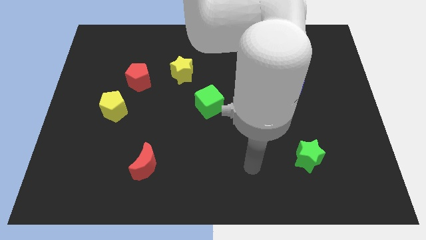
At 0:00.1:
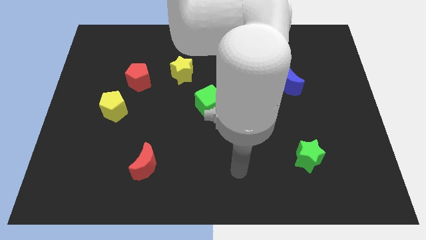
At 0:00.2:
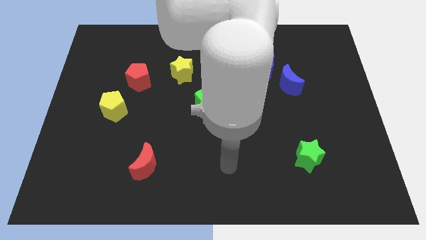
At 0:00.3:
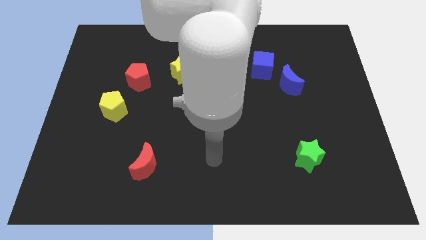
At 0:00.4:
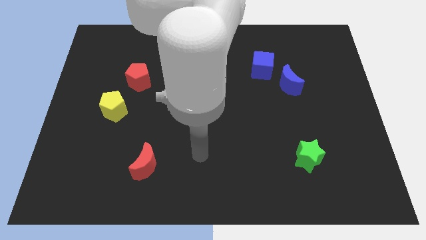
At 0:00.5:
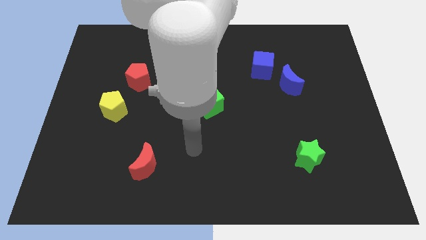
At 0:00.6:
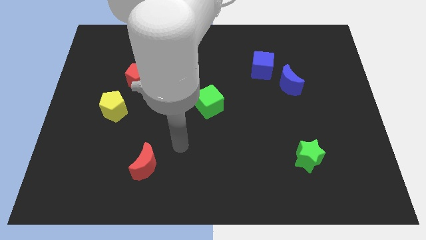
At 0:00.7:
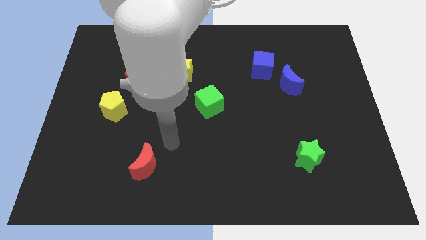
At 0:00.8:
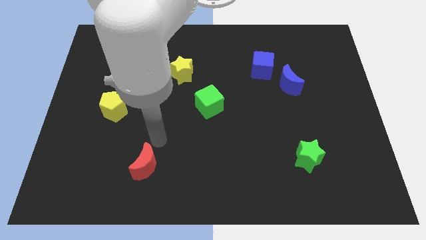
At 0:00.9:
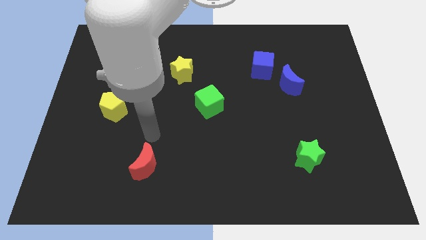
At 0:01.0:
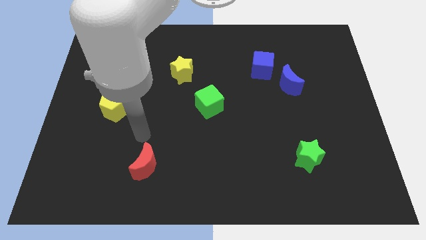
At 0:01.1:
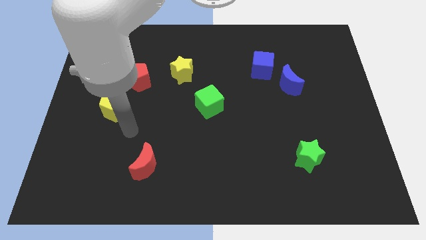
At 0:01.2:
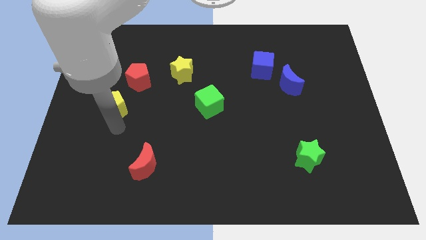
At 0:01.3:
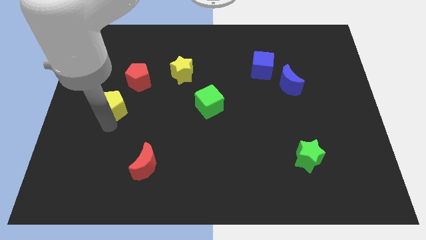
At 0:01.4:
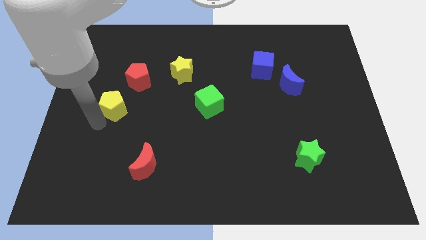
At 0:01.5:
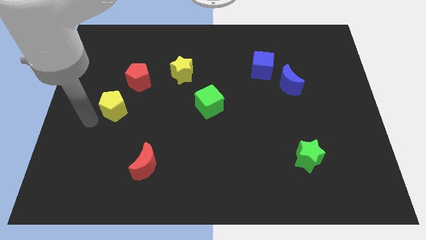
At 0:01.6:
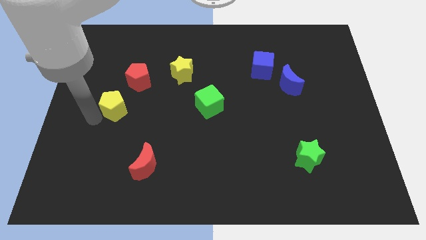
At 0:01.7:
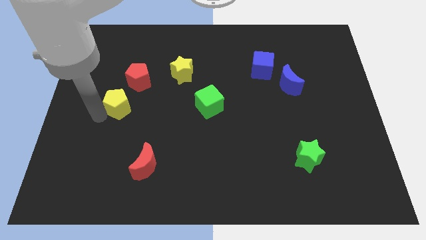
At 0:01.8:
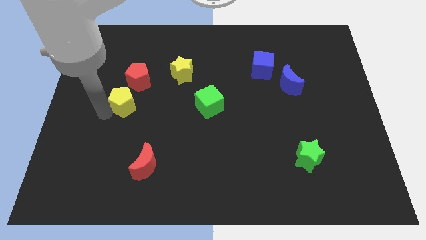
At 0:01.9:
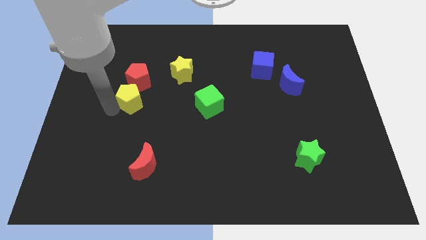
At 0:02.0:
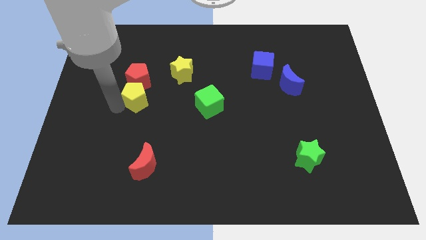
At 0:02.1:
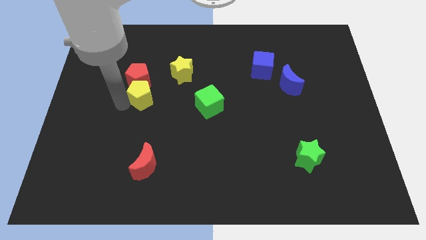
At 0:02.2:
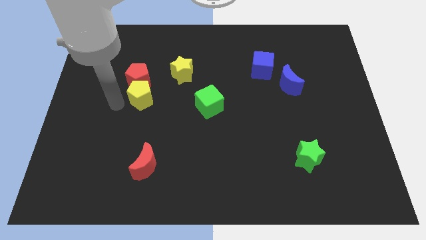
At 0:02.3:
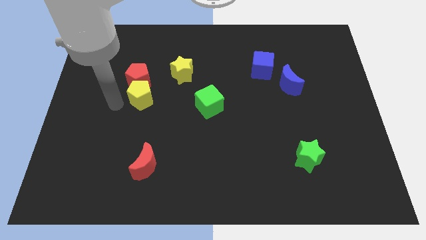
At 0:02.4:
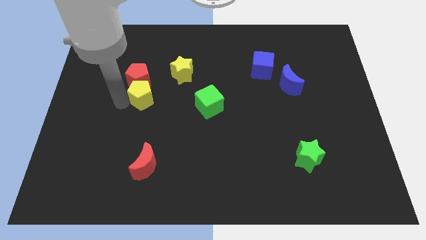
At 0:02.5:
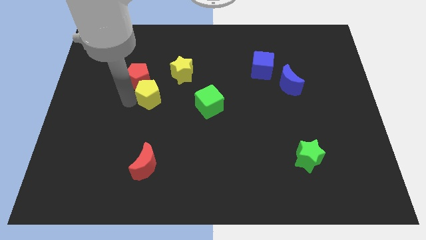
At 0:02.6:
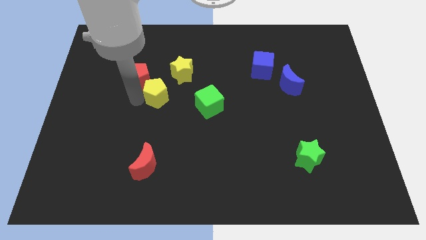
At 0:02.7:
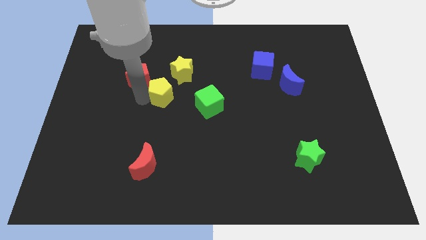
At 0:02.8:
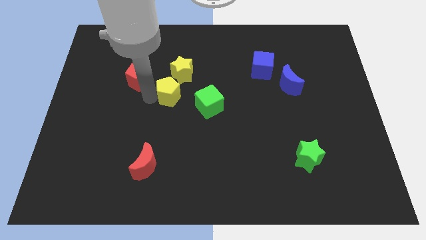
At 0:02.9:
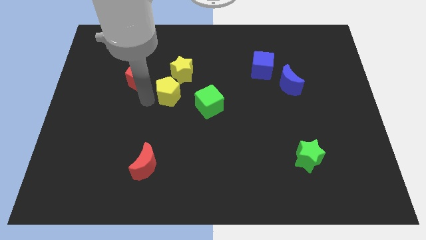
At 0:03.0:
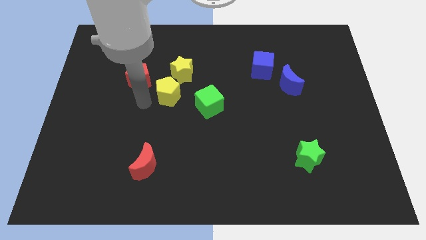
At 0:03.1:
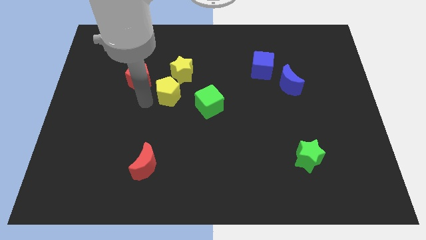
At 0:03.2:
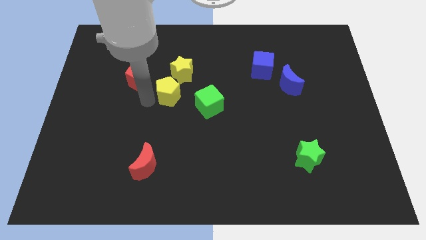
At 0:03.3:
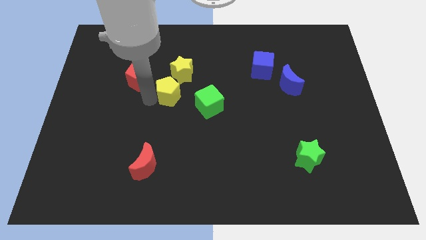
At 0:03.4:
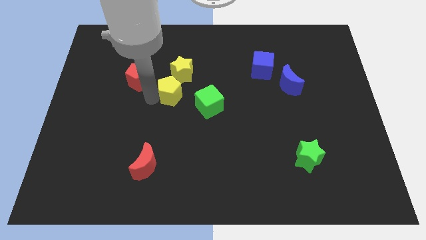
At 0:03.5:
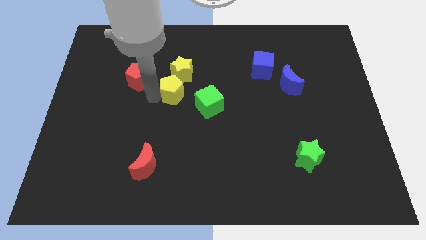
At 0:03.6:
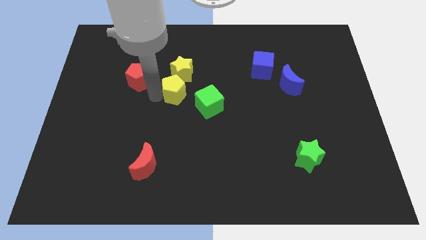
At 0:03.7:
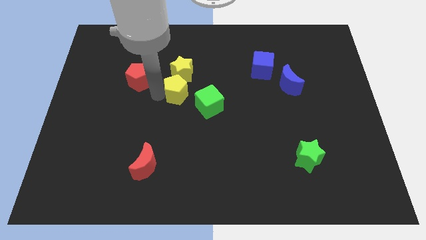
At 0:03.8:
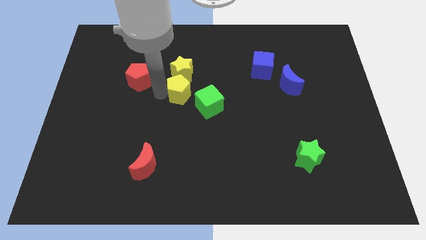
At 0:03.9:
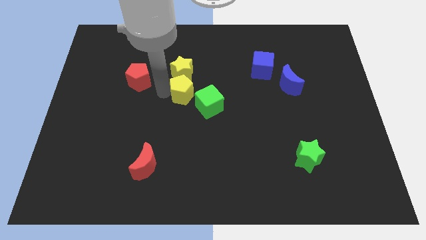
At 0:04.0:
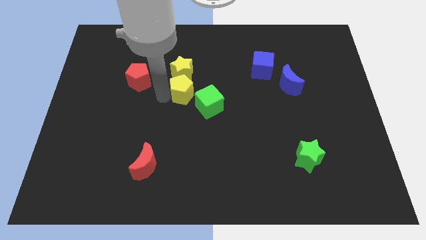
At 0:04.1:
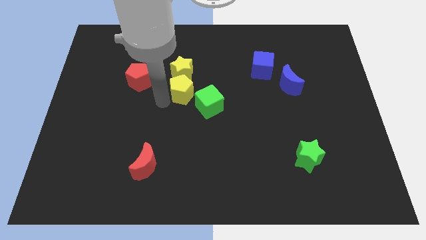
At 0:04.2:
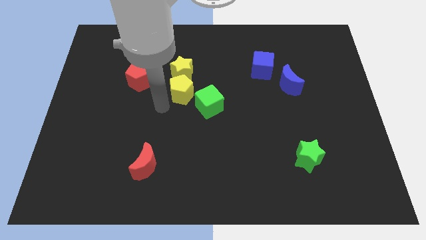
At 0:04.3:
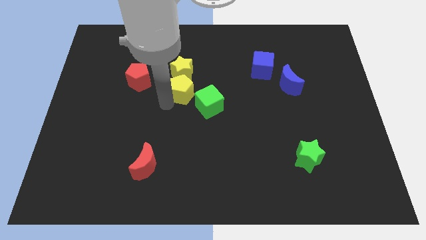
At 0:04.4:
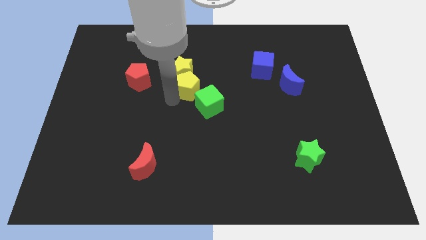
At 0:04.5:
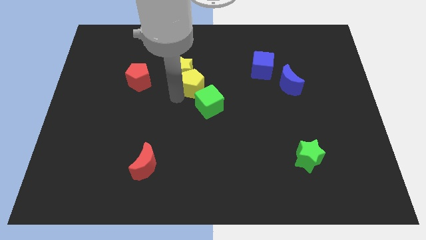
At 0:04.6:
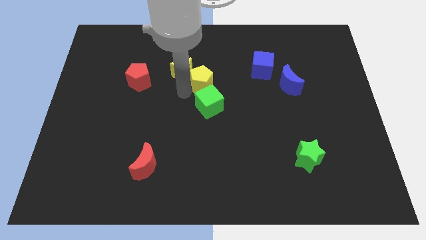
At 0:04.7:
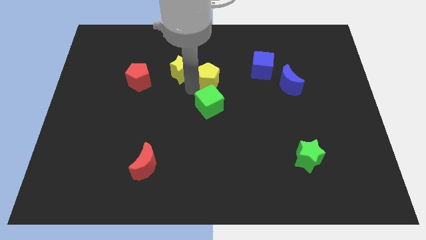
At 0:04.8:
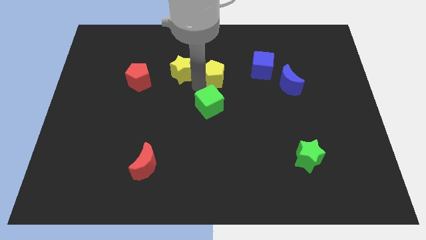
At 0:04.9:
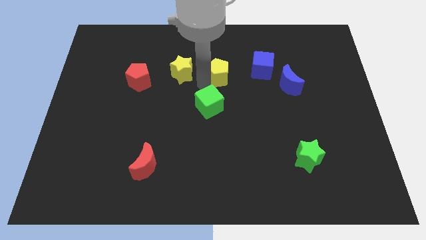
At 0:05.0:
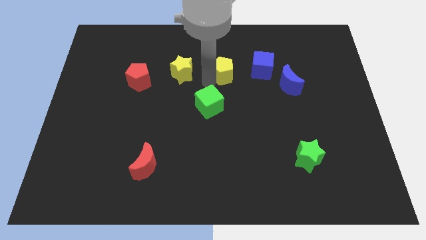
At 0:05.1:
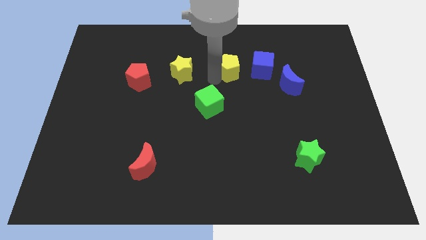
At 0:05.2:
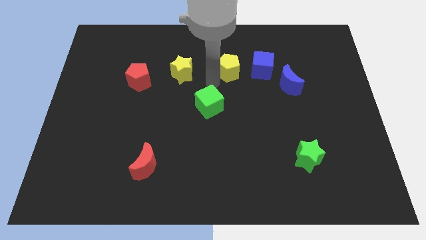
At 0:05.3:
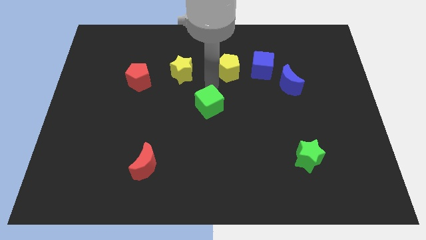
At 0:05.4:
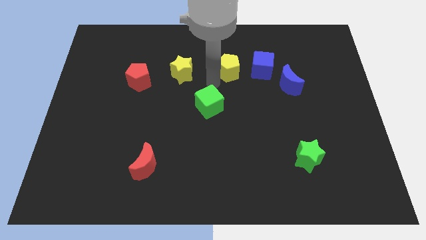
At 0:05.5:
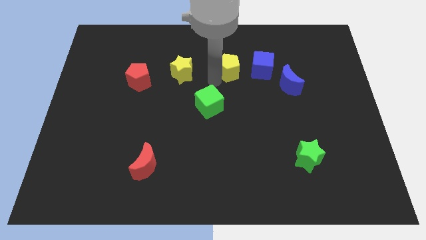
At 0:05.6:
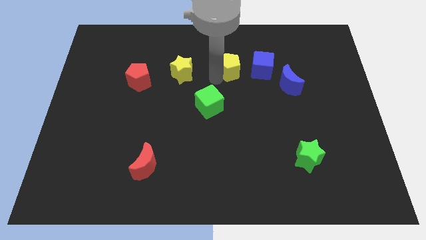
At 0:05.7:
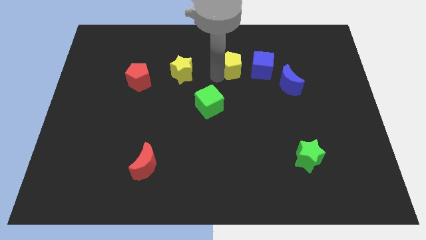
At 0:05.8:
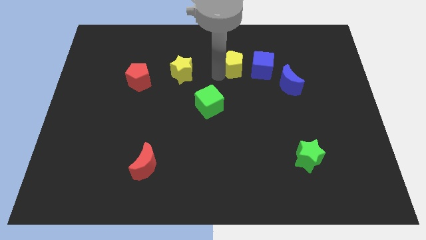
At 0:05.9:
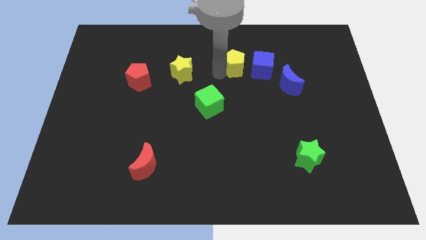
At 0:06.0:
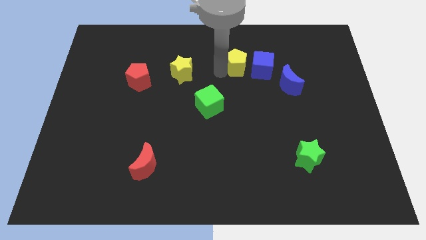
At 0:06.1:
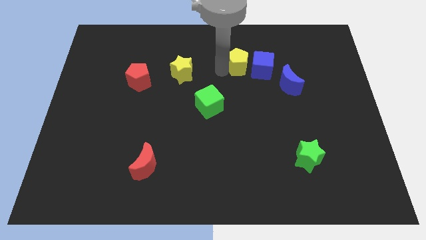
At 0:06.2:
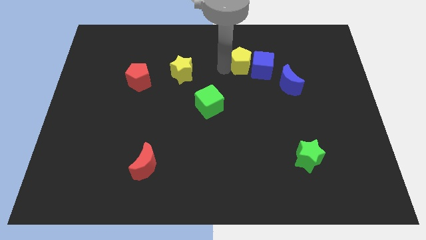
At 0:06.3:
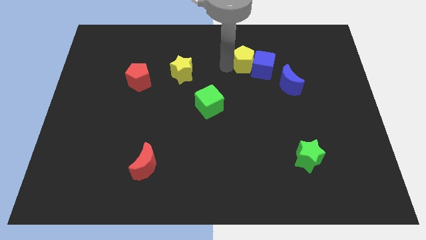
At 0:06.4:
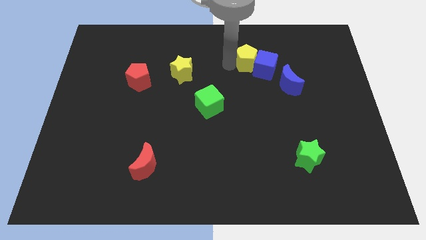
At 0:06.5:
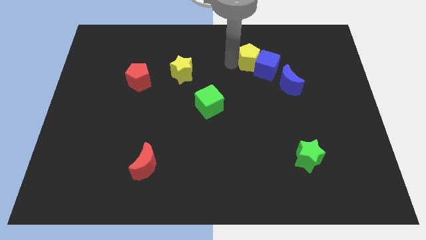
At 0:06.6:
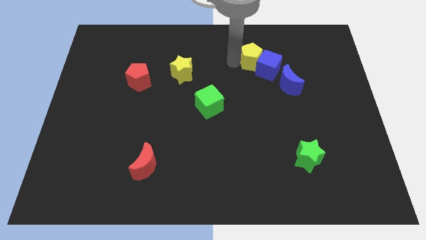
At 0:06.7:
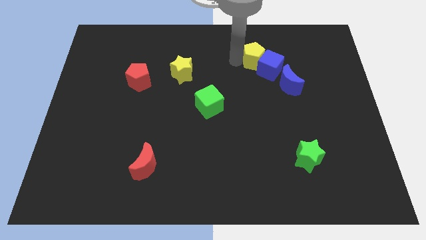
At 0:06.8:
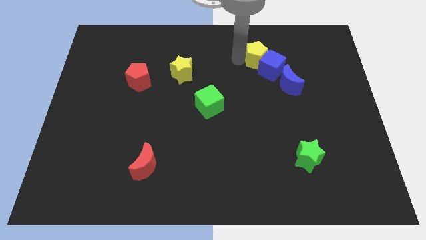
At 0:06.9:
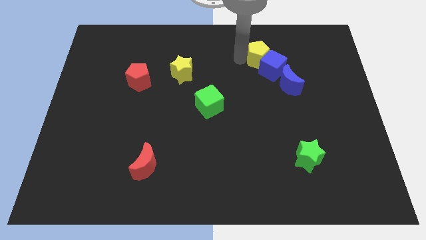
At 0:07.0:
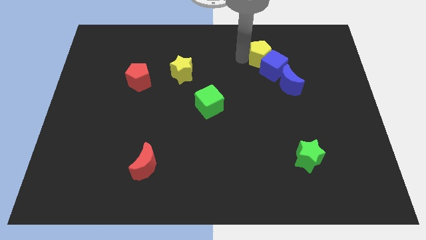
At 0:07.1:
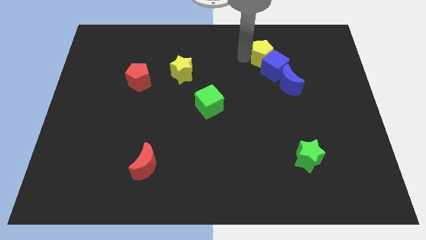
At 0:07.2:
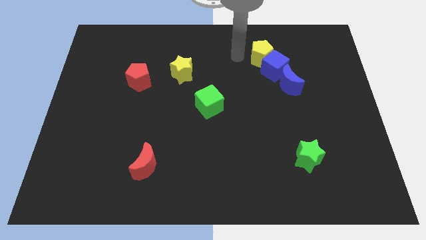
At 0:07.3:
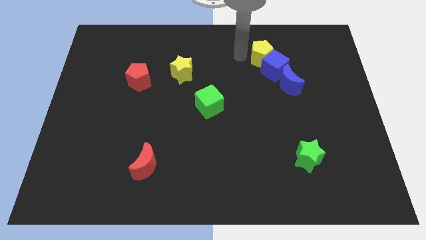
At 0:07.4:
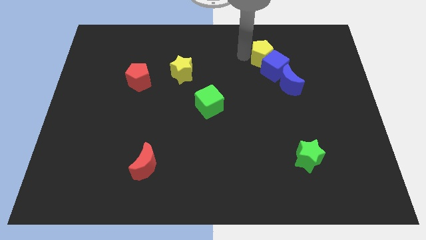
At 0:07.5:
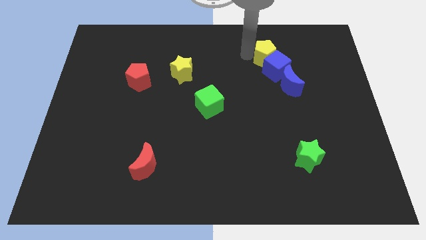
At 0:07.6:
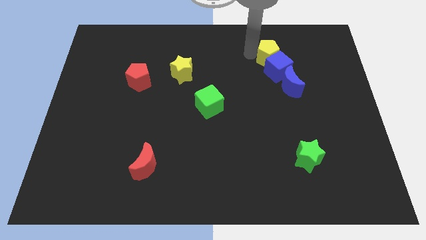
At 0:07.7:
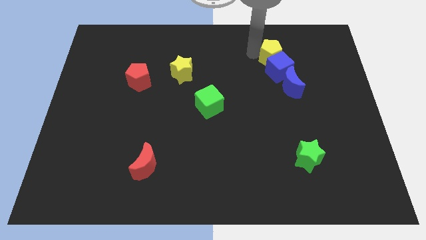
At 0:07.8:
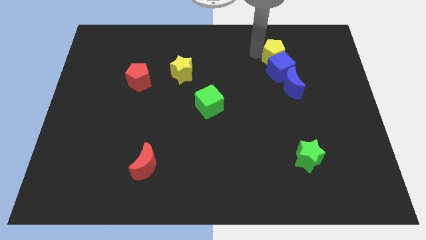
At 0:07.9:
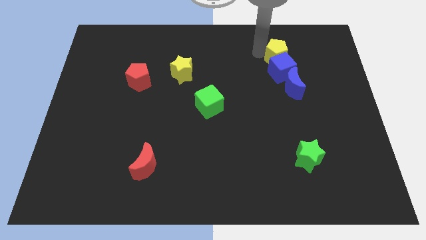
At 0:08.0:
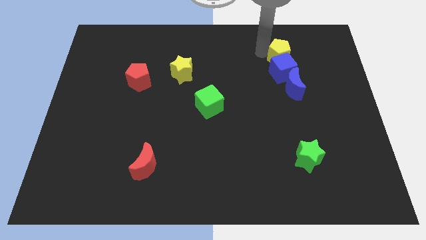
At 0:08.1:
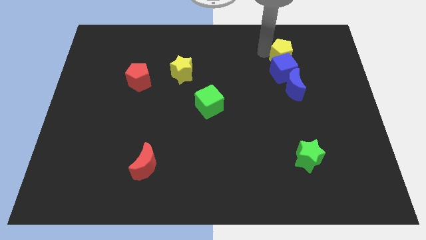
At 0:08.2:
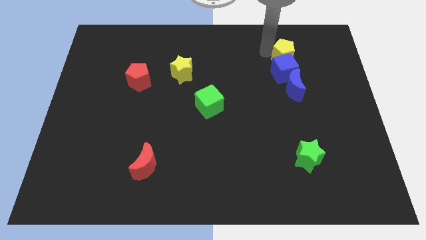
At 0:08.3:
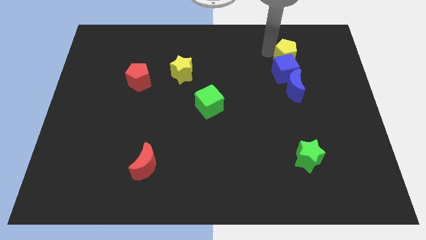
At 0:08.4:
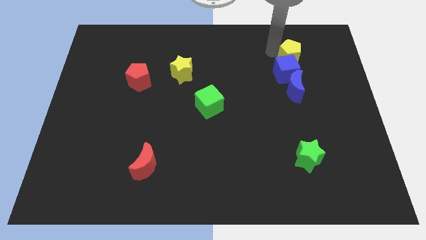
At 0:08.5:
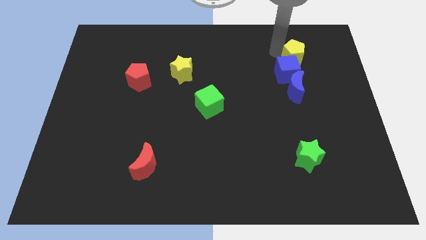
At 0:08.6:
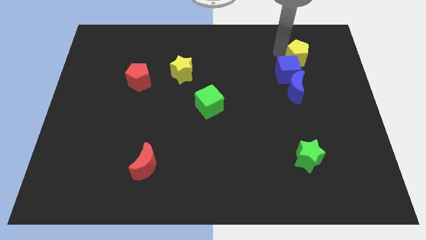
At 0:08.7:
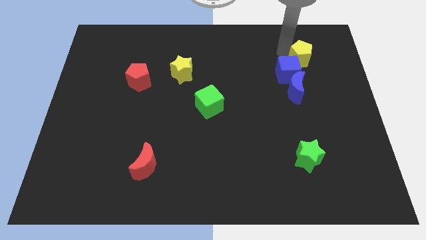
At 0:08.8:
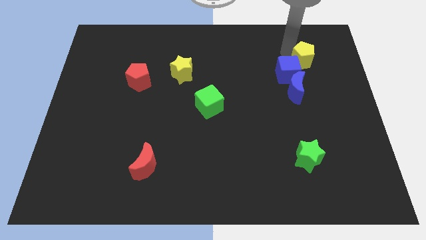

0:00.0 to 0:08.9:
put the yellow pentagon right of the blue cube
